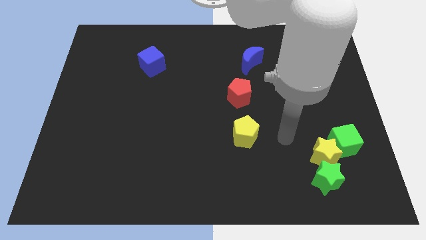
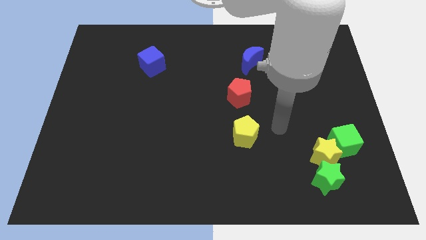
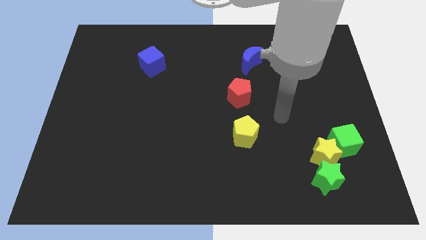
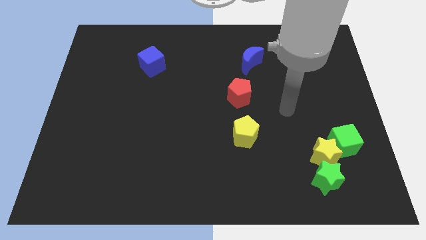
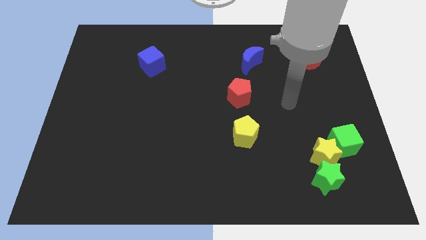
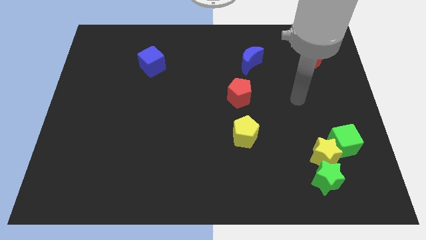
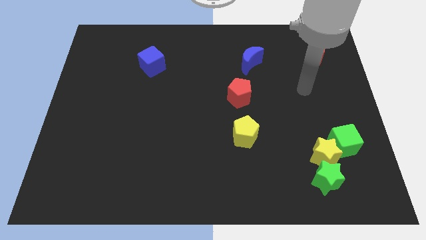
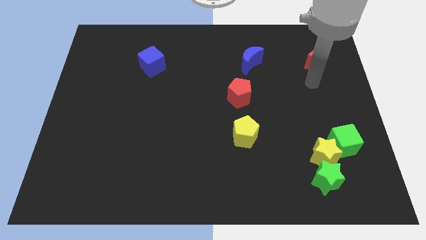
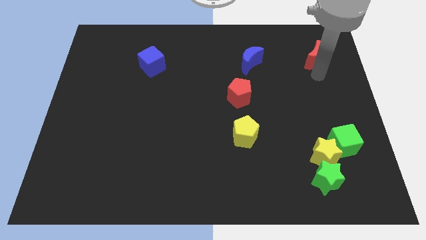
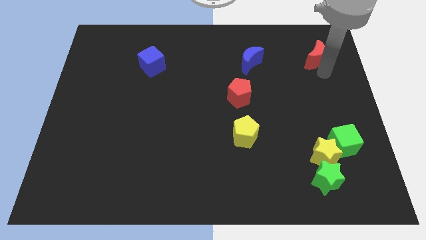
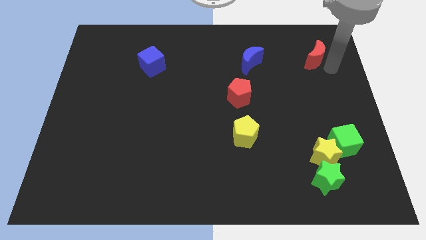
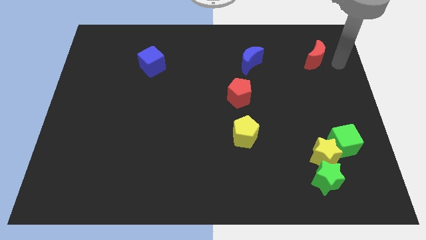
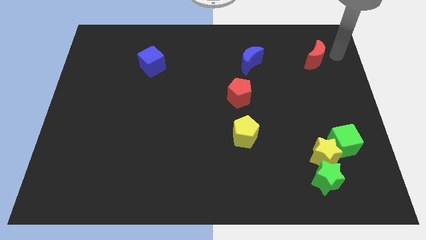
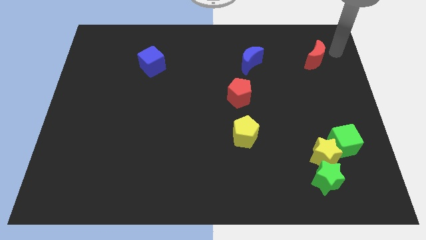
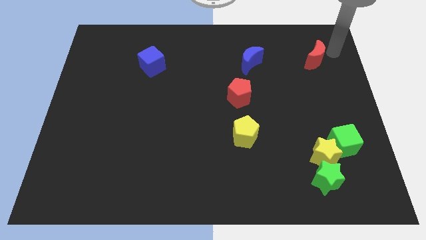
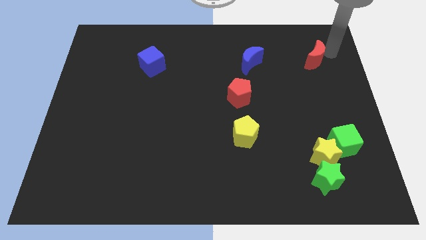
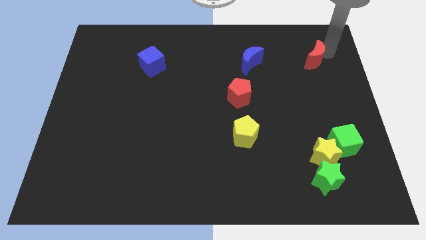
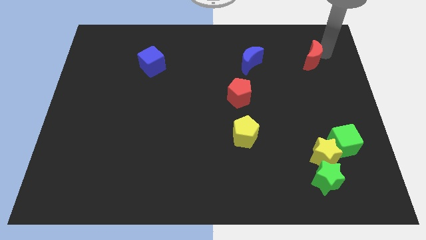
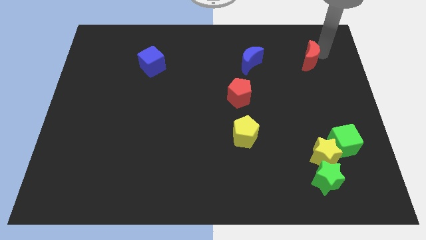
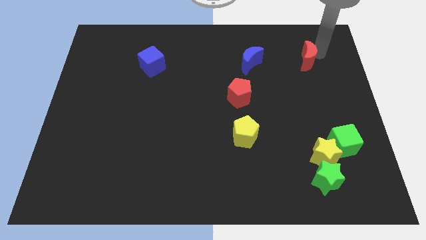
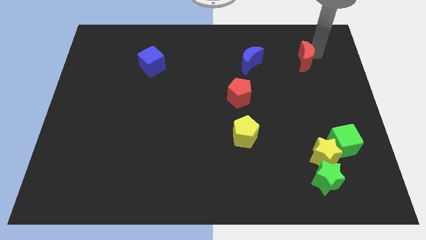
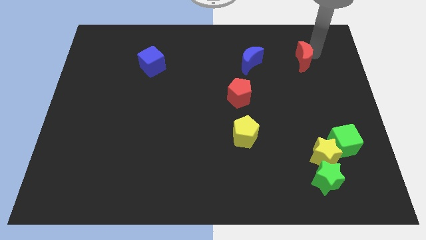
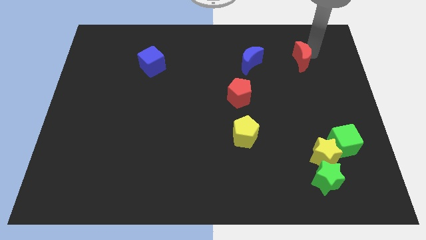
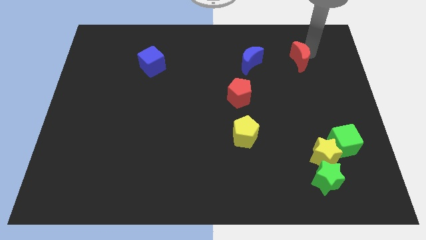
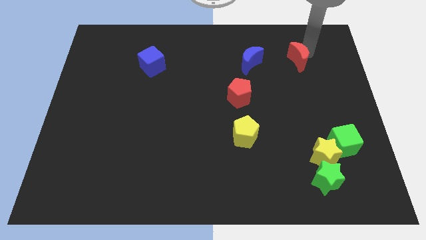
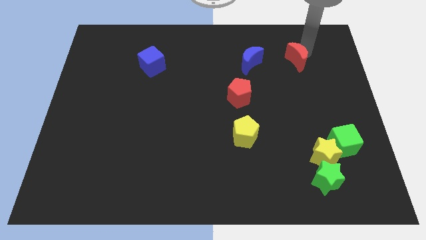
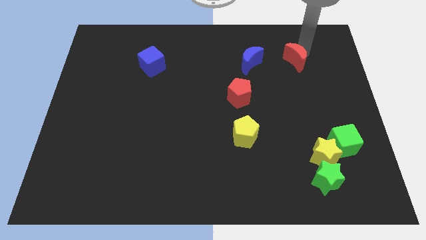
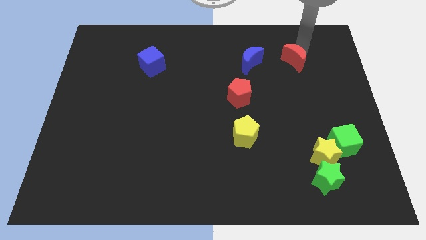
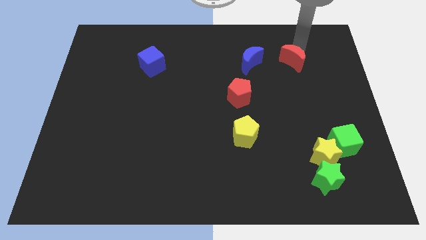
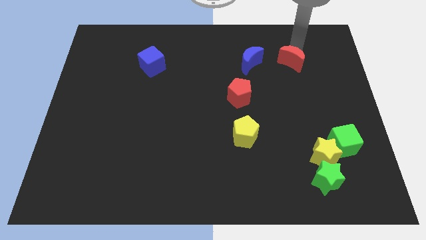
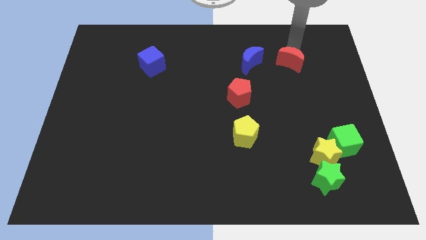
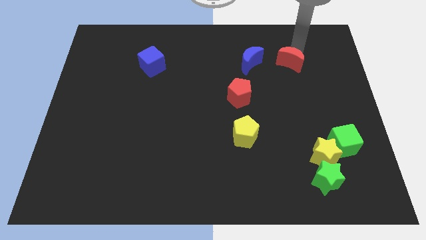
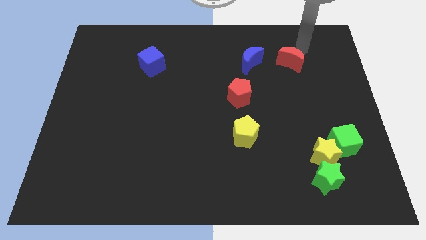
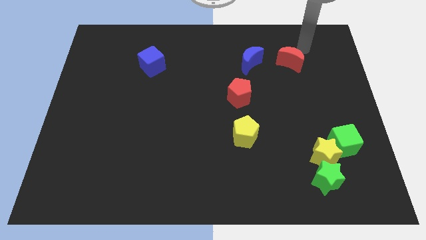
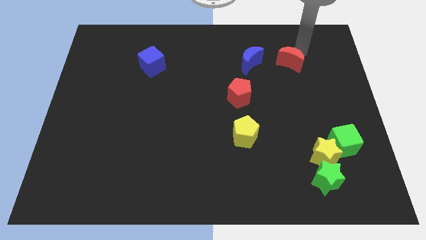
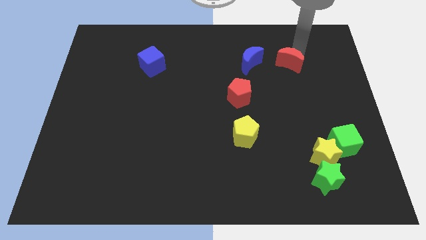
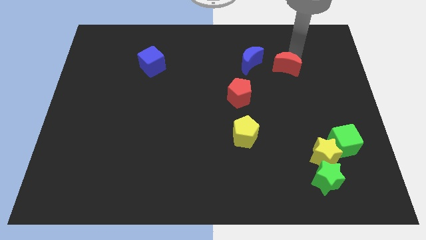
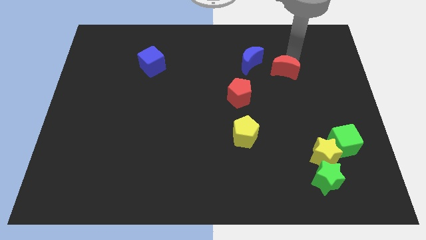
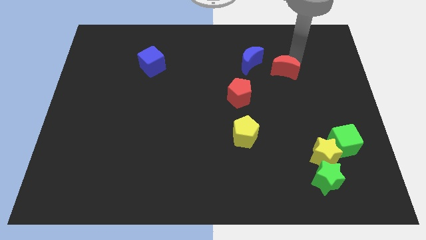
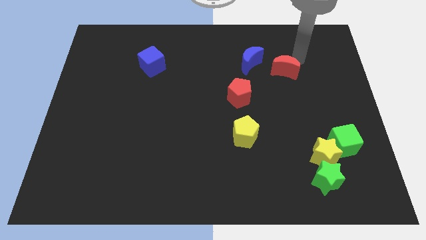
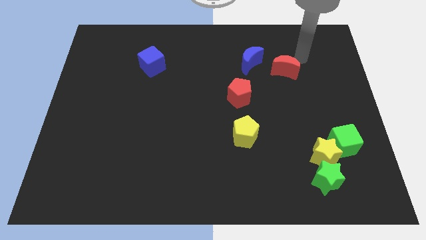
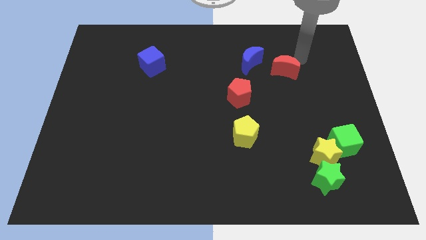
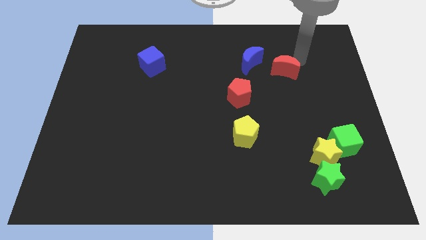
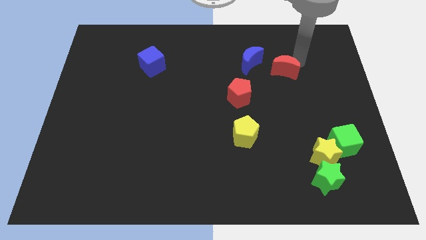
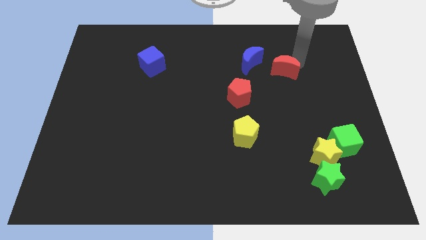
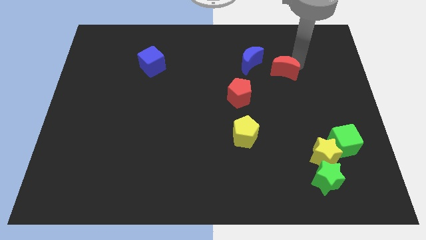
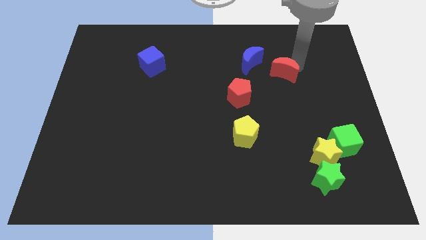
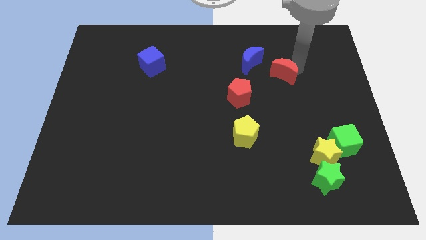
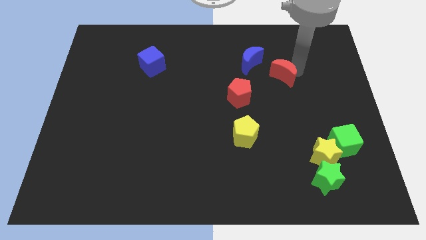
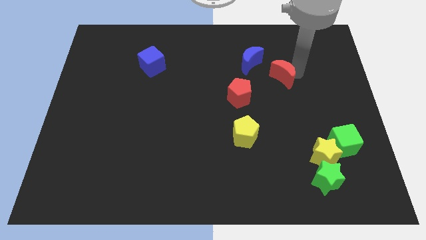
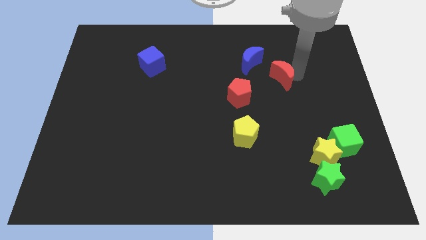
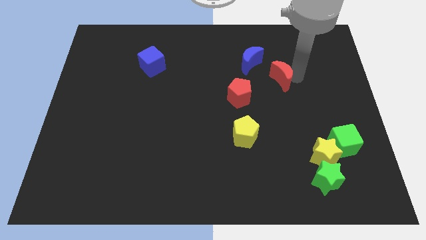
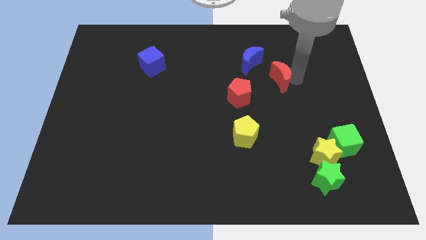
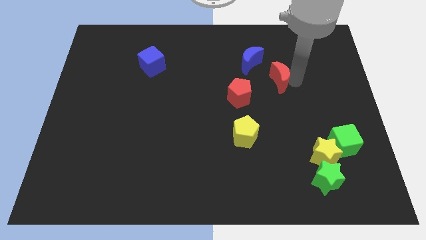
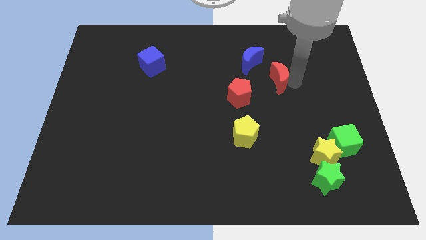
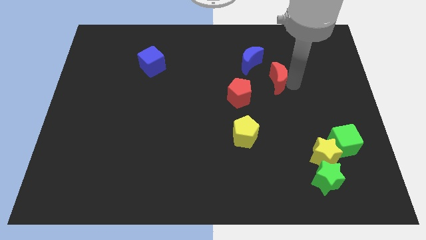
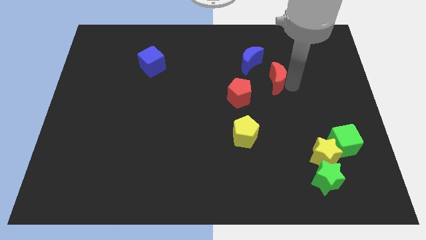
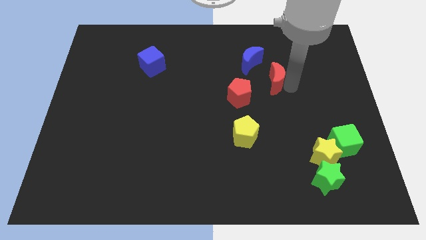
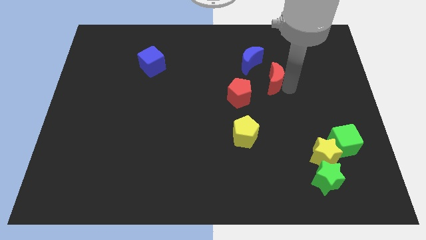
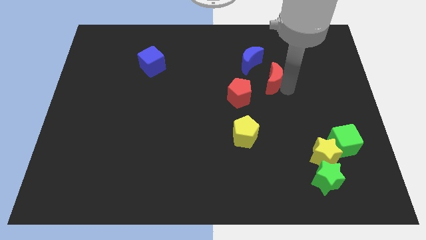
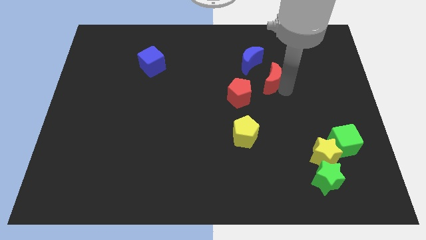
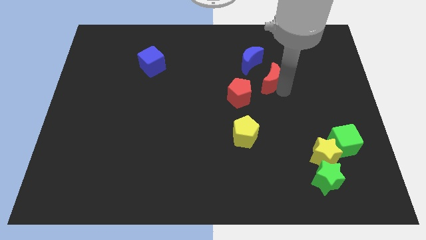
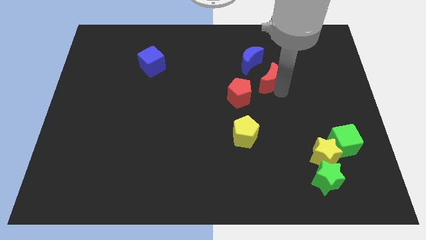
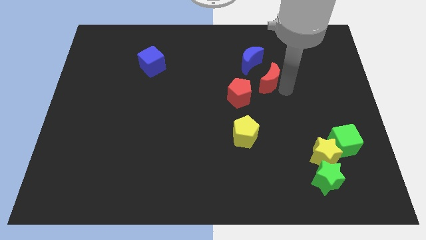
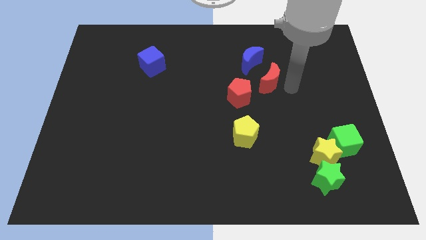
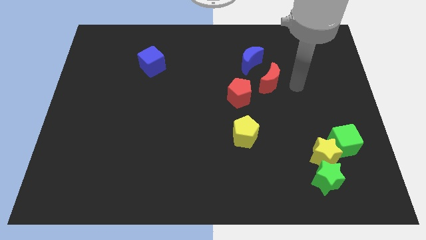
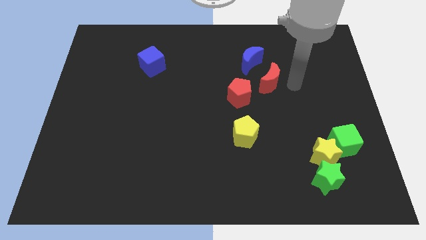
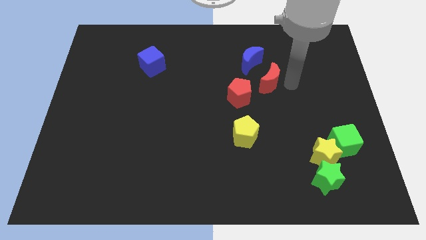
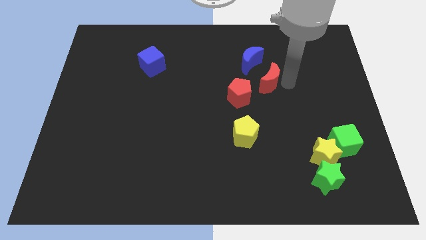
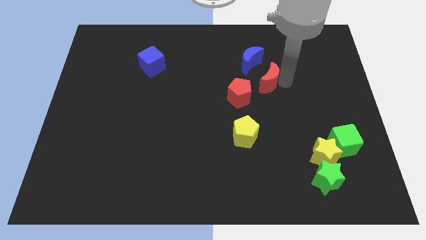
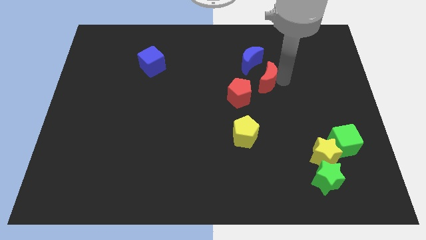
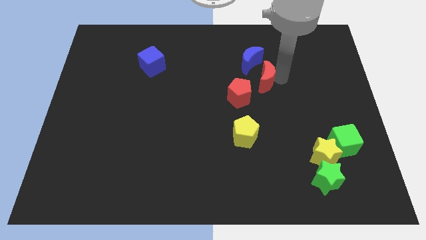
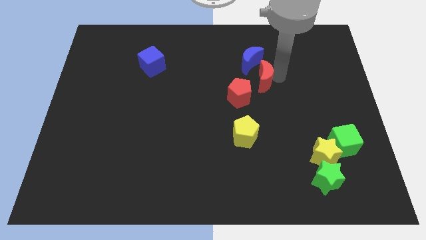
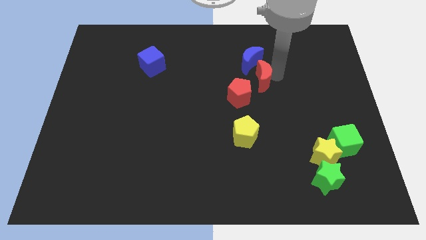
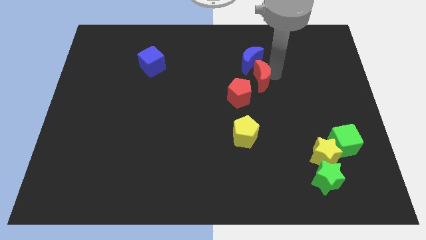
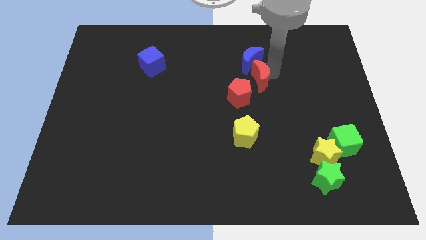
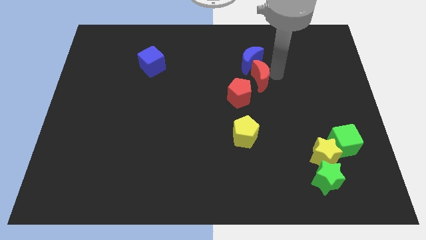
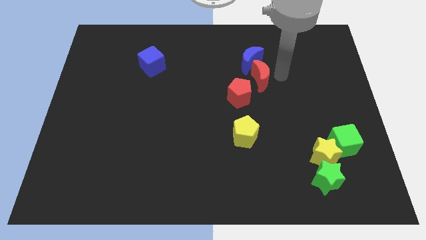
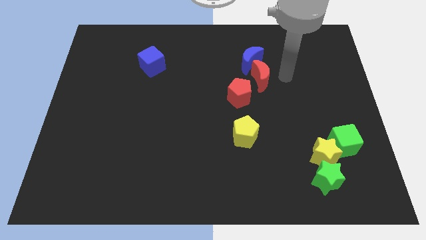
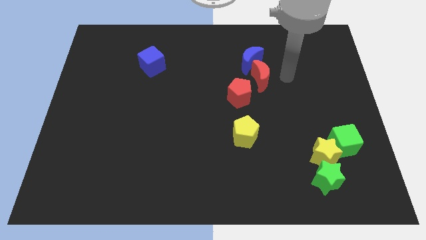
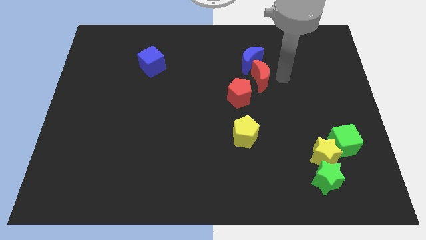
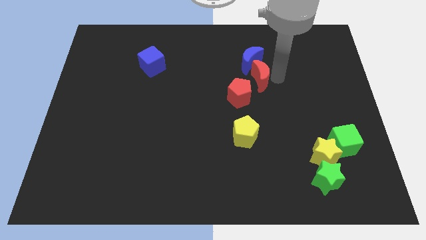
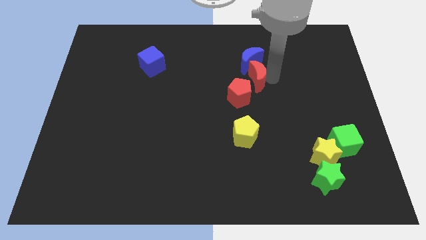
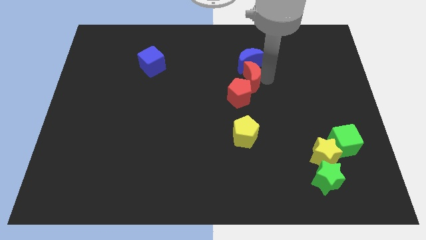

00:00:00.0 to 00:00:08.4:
slide the red moon to the center of the board
